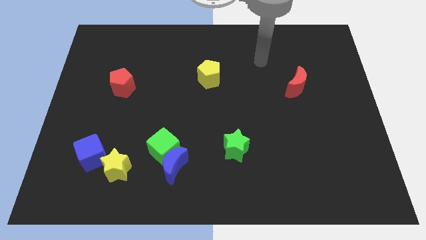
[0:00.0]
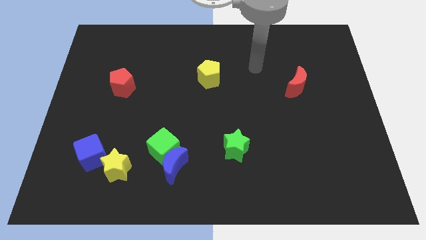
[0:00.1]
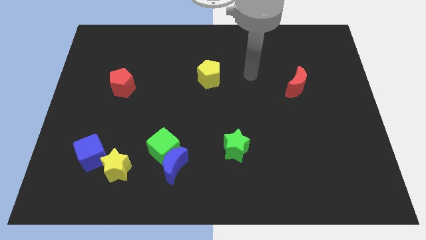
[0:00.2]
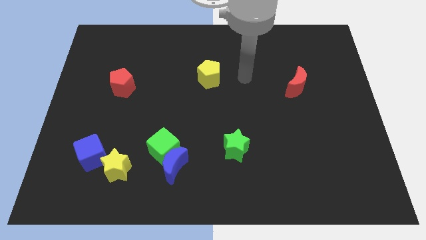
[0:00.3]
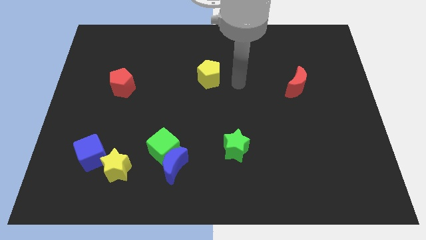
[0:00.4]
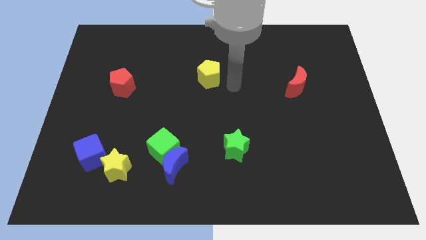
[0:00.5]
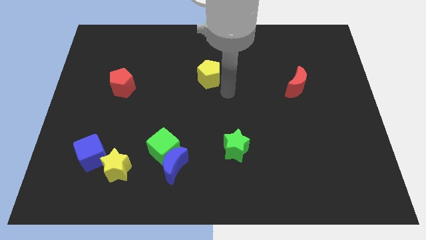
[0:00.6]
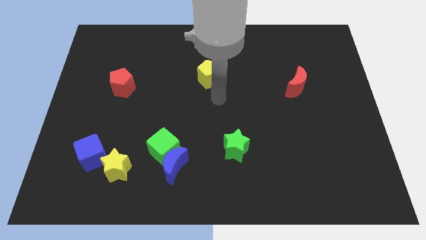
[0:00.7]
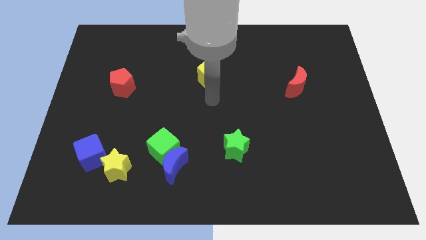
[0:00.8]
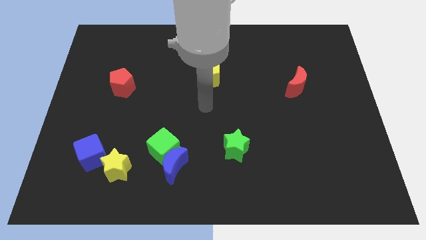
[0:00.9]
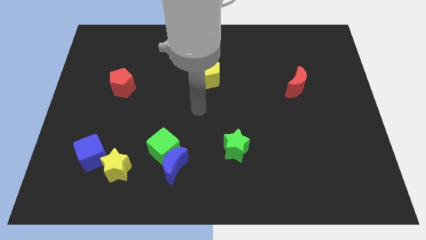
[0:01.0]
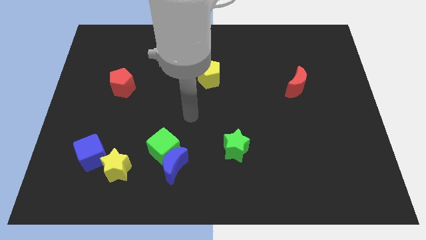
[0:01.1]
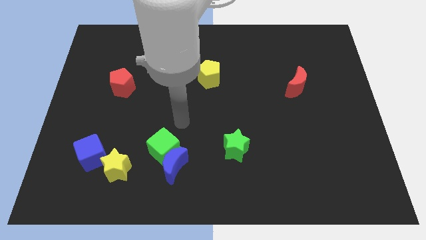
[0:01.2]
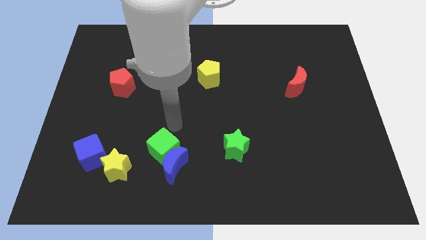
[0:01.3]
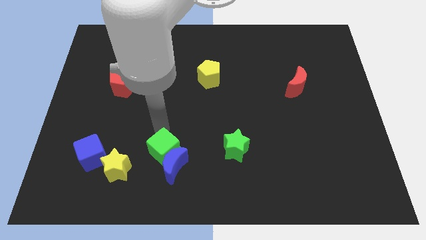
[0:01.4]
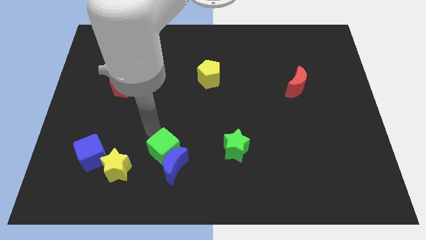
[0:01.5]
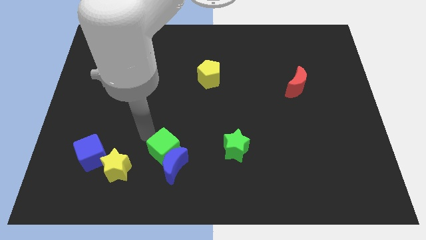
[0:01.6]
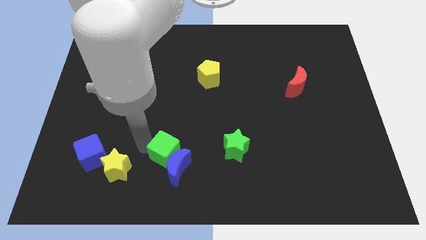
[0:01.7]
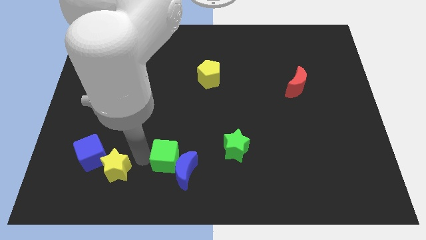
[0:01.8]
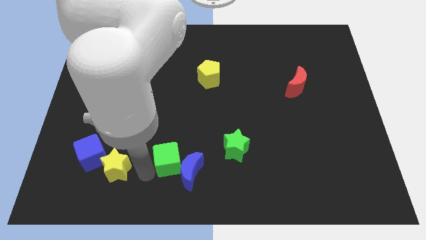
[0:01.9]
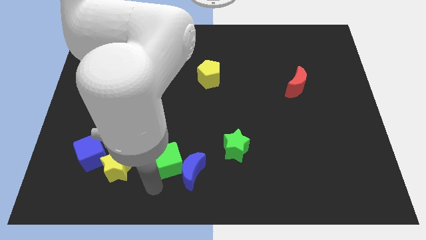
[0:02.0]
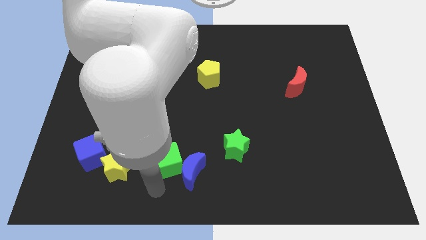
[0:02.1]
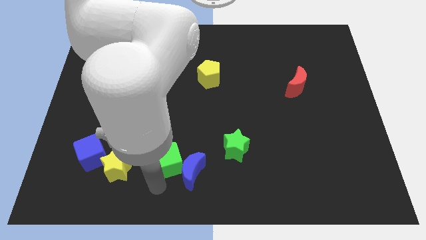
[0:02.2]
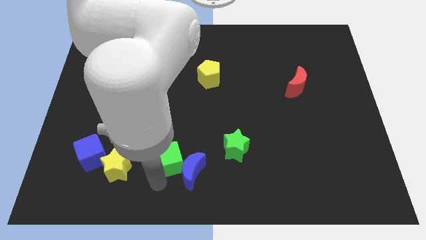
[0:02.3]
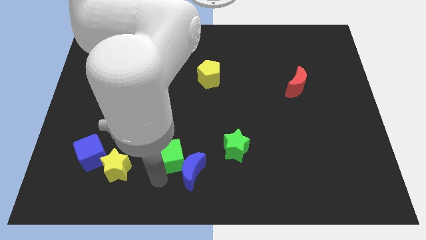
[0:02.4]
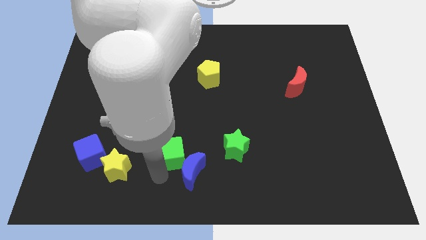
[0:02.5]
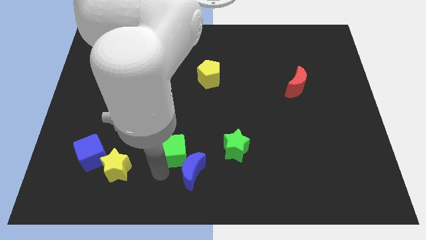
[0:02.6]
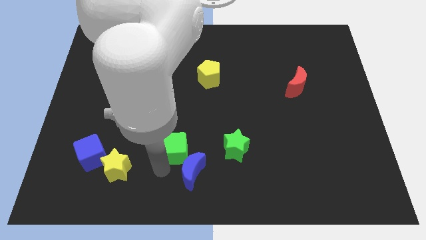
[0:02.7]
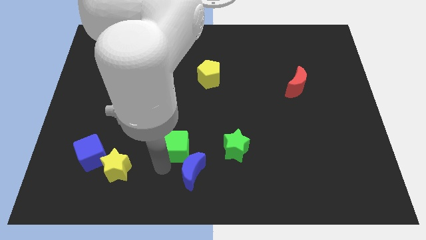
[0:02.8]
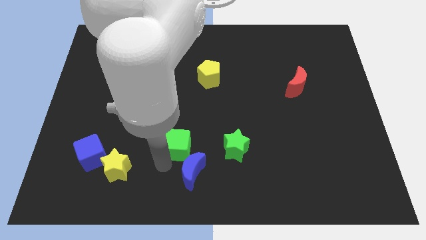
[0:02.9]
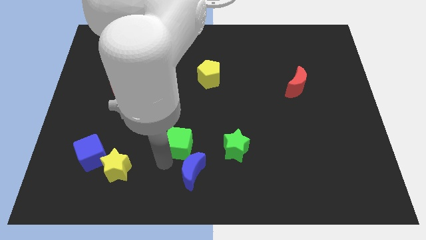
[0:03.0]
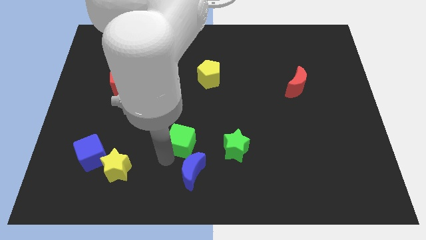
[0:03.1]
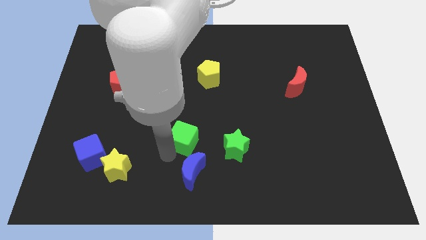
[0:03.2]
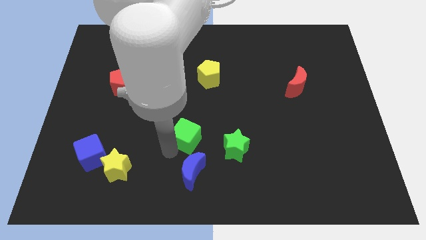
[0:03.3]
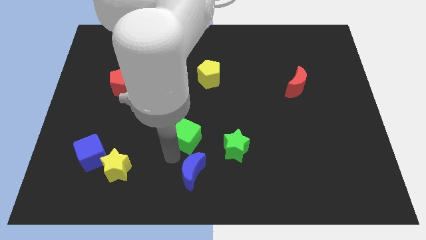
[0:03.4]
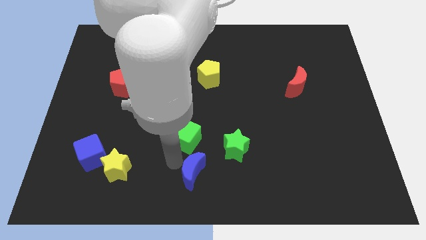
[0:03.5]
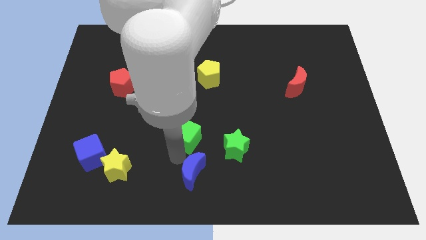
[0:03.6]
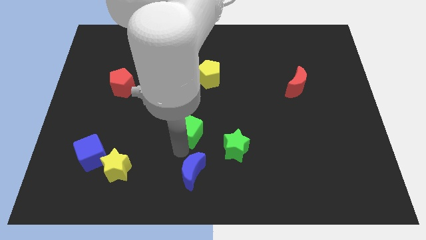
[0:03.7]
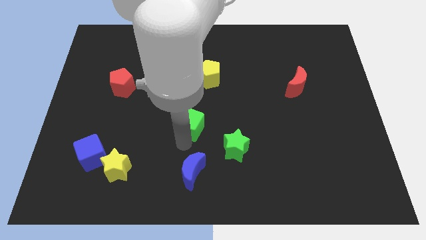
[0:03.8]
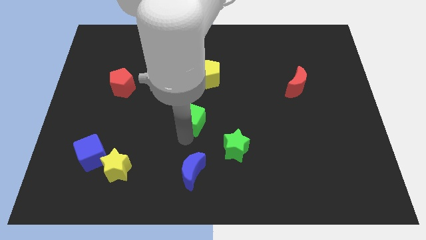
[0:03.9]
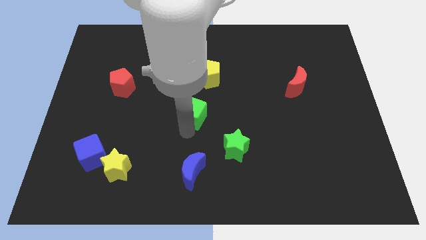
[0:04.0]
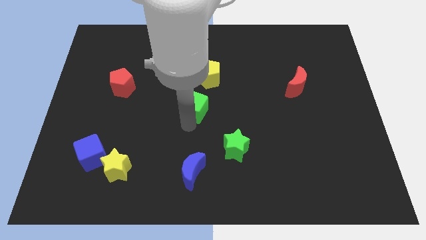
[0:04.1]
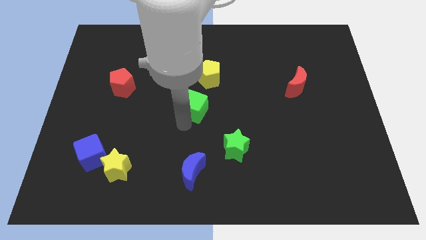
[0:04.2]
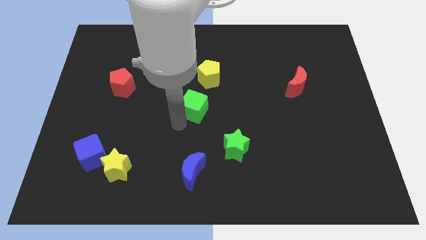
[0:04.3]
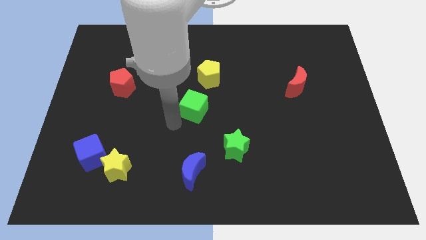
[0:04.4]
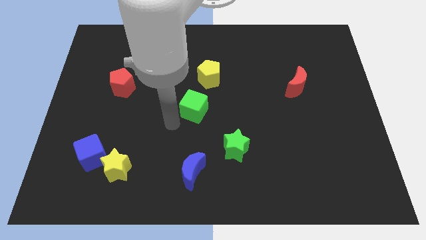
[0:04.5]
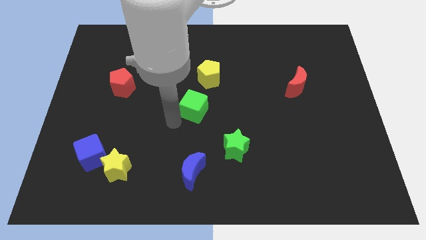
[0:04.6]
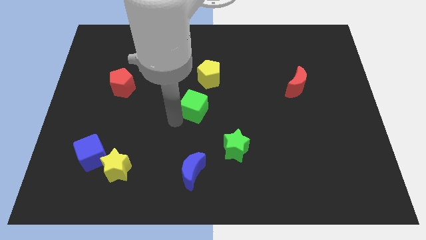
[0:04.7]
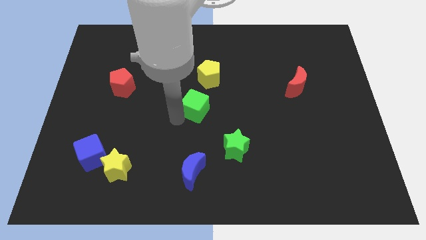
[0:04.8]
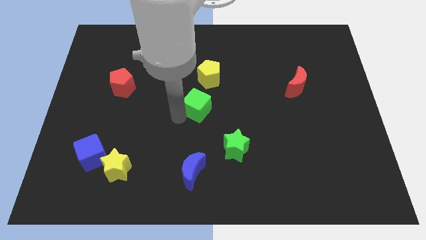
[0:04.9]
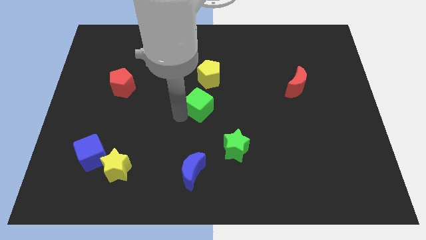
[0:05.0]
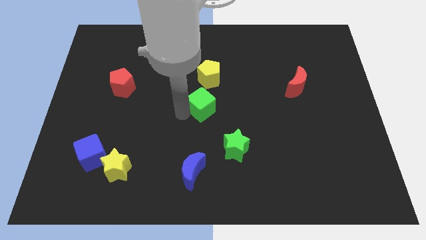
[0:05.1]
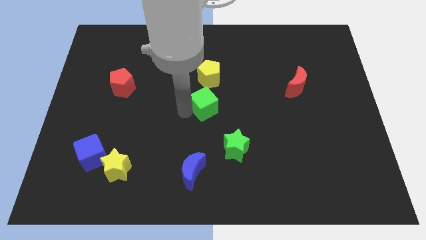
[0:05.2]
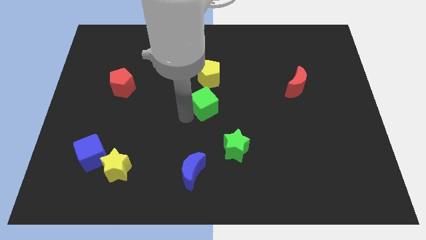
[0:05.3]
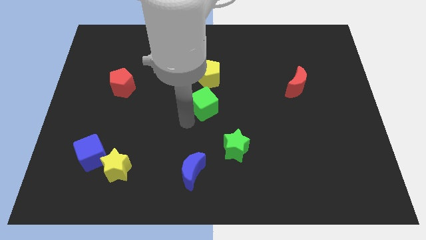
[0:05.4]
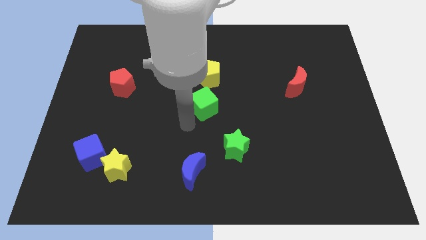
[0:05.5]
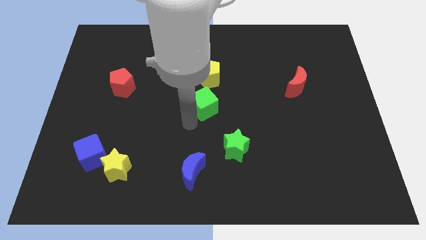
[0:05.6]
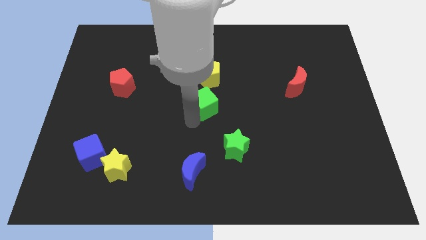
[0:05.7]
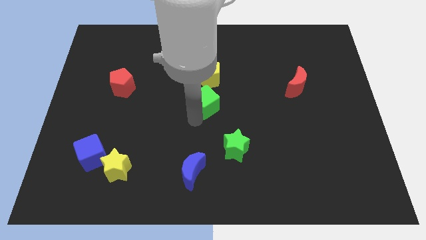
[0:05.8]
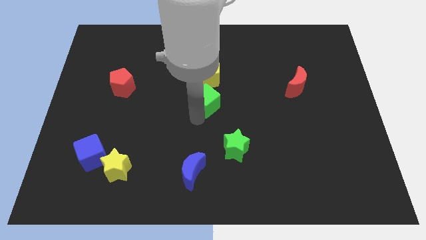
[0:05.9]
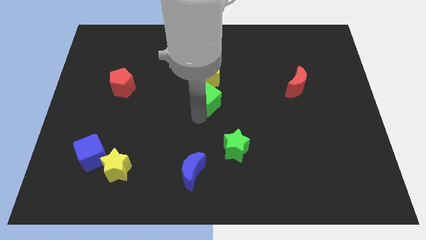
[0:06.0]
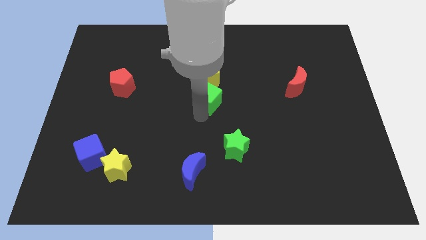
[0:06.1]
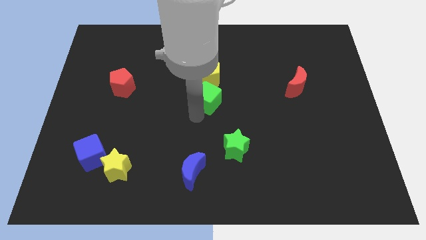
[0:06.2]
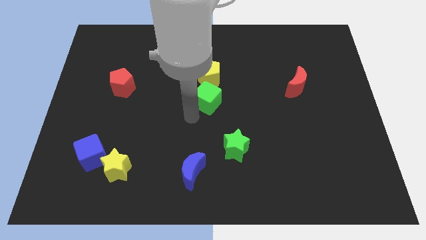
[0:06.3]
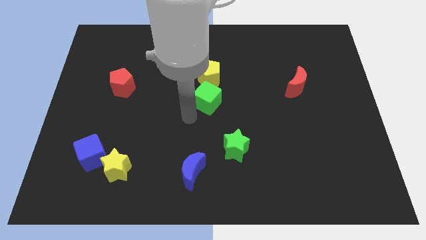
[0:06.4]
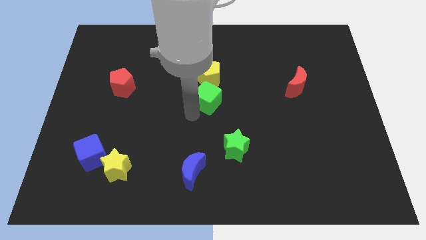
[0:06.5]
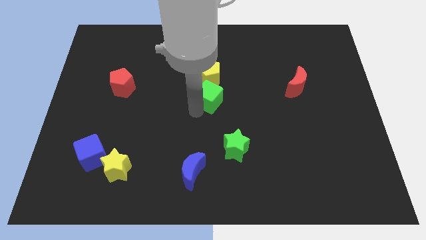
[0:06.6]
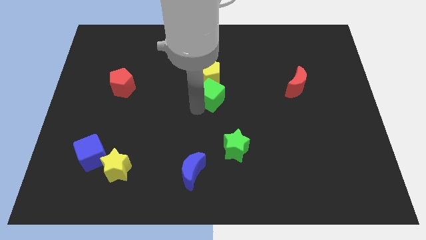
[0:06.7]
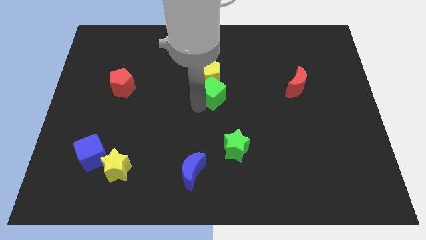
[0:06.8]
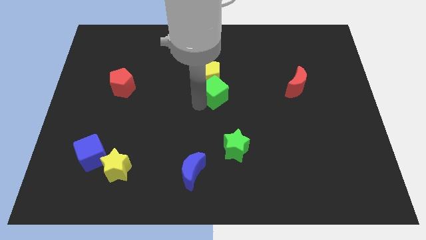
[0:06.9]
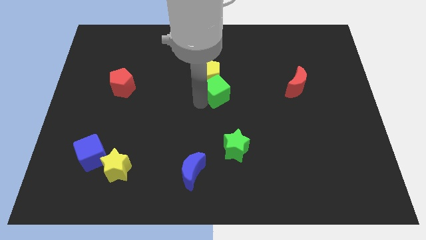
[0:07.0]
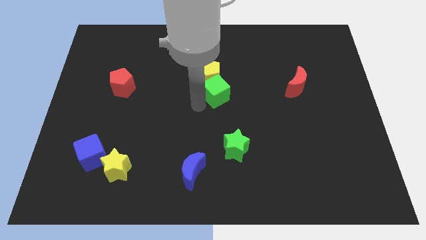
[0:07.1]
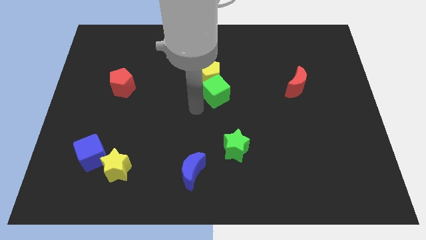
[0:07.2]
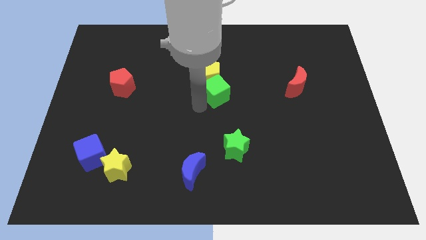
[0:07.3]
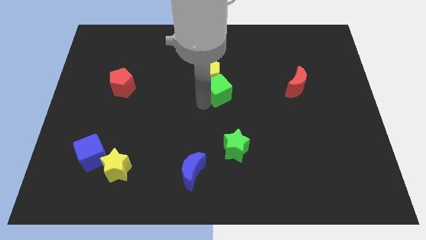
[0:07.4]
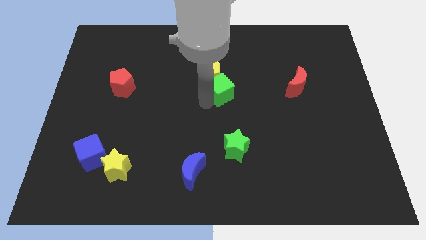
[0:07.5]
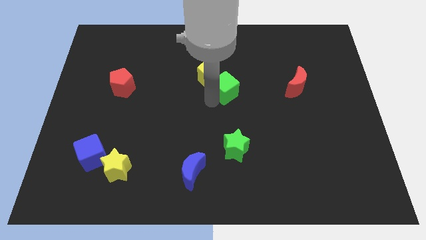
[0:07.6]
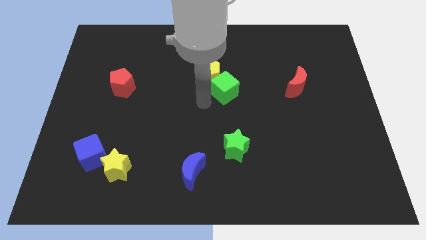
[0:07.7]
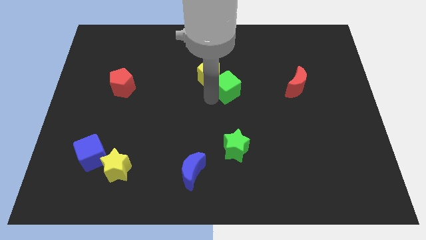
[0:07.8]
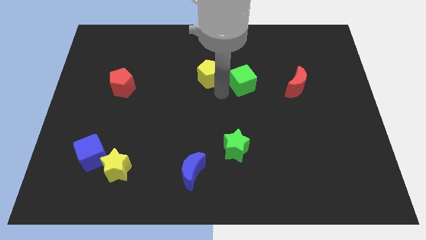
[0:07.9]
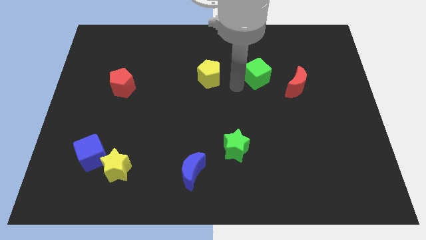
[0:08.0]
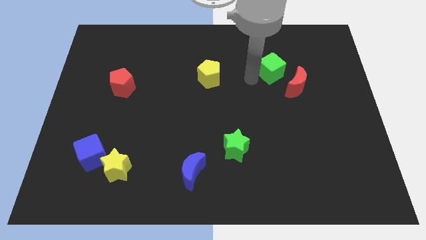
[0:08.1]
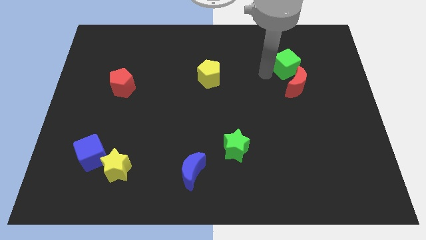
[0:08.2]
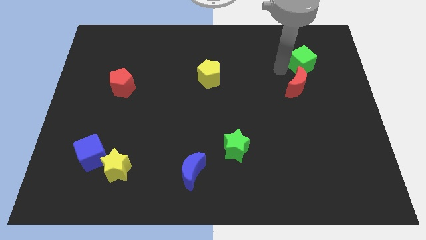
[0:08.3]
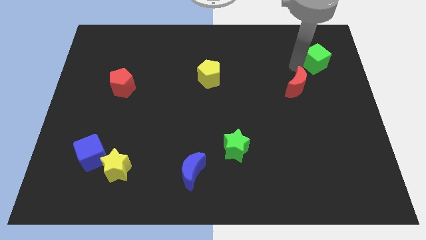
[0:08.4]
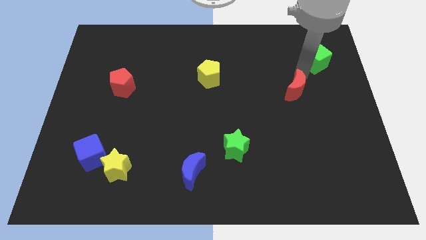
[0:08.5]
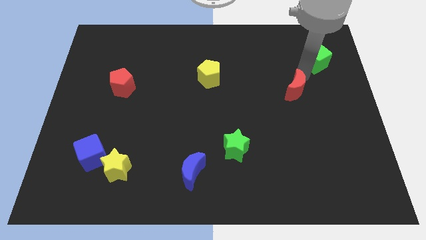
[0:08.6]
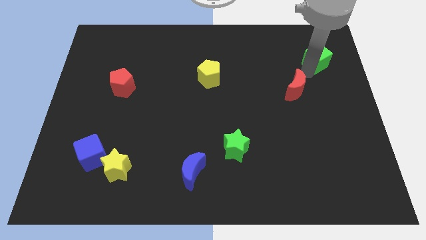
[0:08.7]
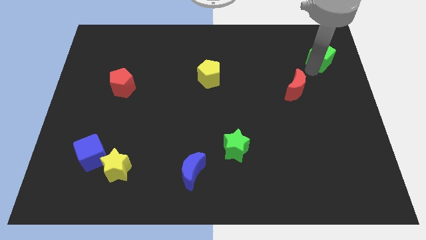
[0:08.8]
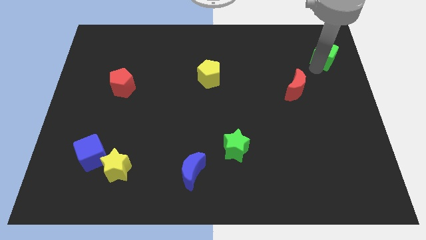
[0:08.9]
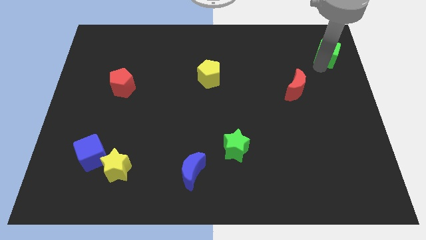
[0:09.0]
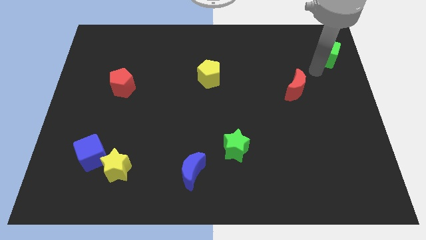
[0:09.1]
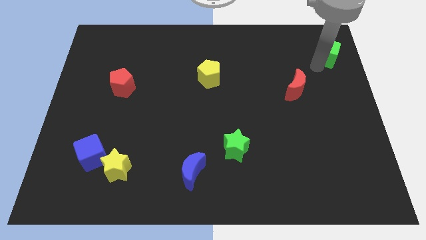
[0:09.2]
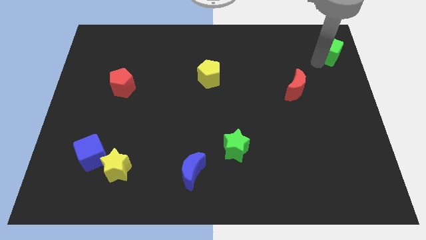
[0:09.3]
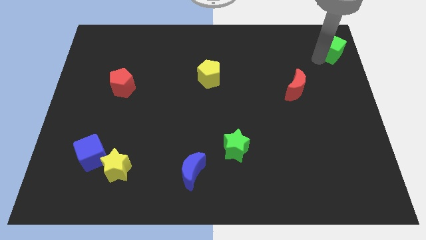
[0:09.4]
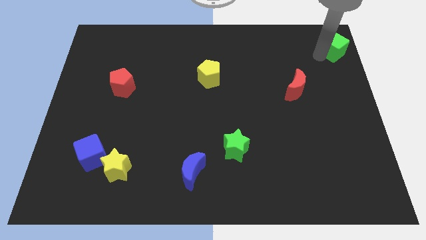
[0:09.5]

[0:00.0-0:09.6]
push the green cube to the top right
